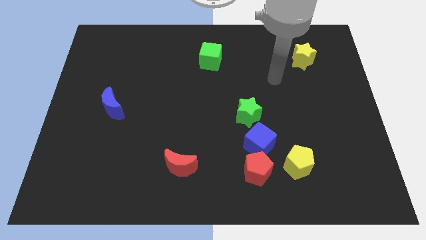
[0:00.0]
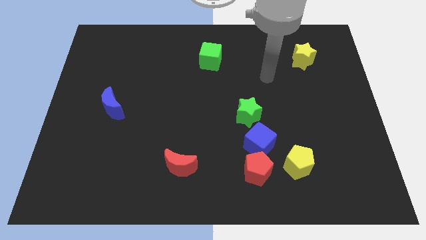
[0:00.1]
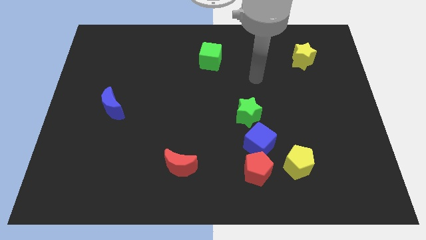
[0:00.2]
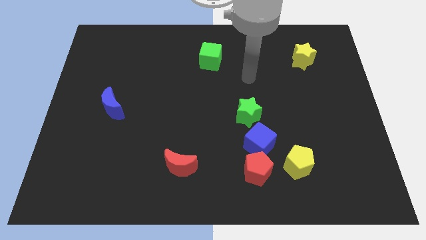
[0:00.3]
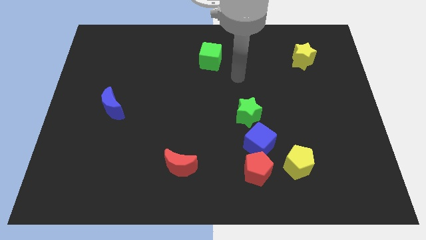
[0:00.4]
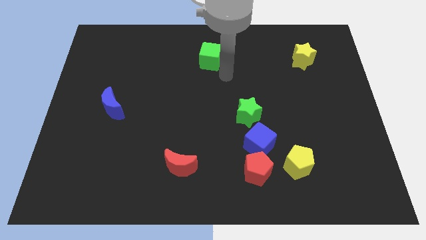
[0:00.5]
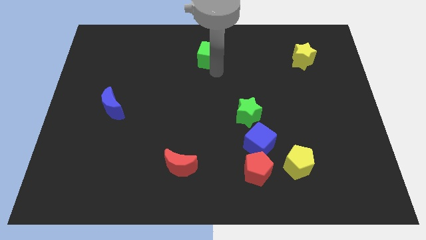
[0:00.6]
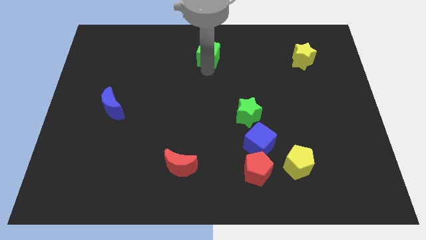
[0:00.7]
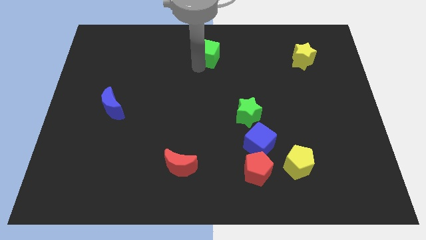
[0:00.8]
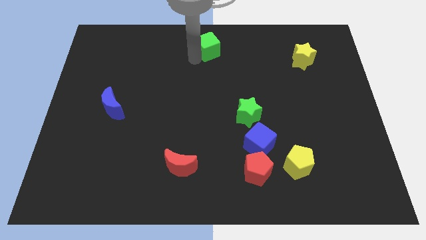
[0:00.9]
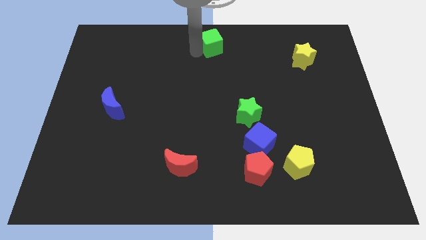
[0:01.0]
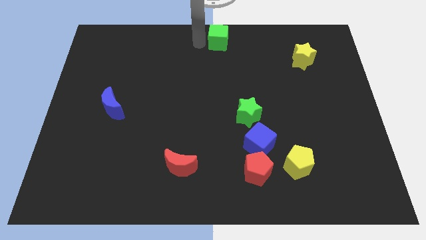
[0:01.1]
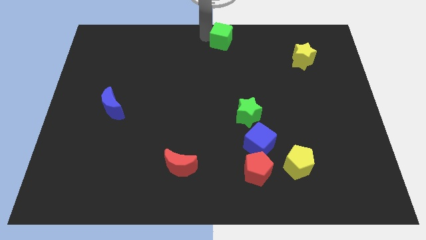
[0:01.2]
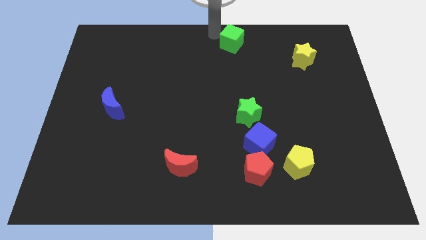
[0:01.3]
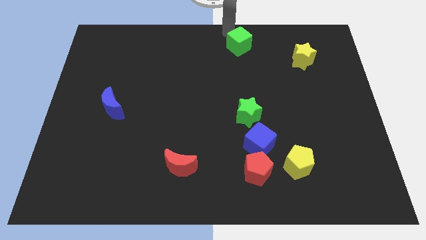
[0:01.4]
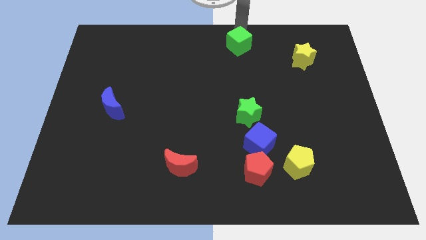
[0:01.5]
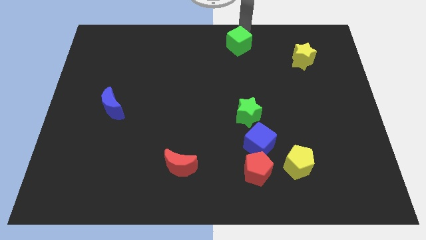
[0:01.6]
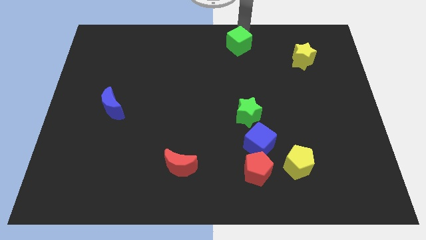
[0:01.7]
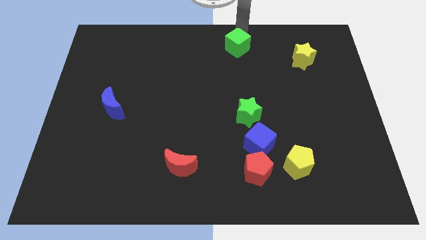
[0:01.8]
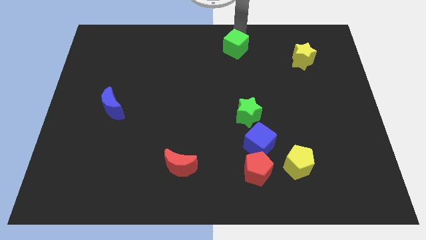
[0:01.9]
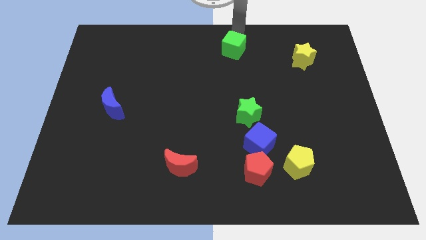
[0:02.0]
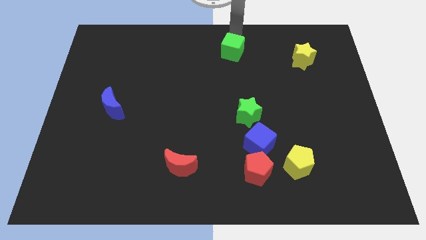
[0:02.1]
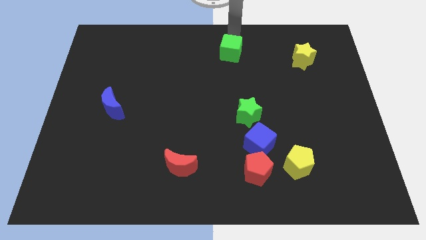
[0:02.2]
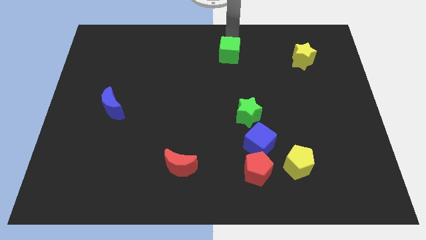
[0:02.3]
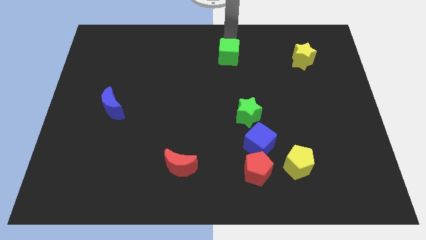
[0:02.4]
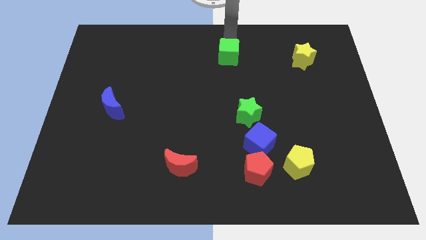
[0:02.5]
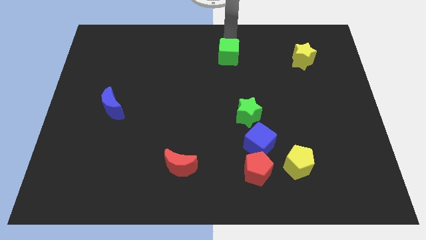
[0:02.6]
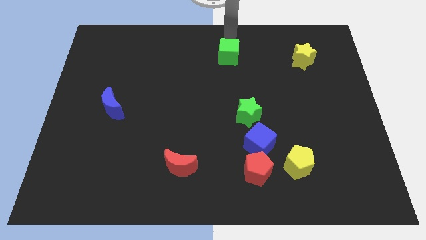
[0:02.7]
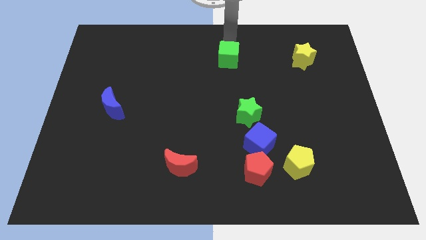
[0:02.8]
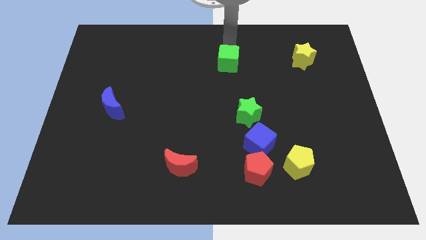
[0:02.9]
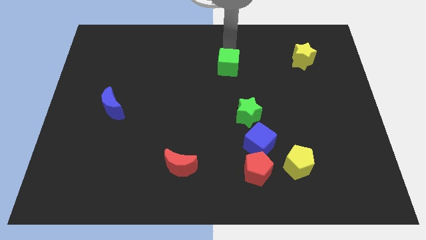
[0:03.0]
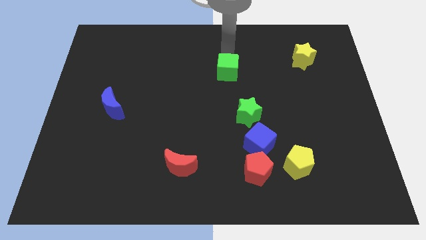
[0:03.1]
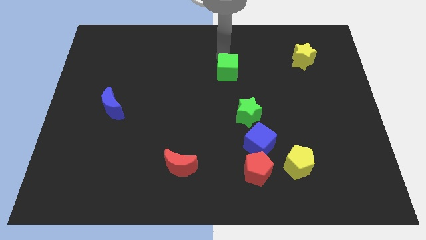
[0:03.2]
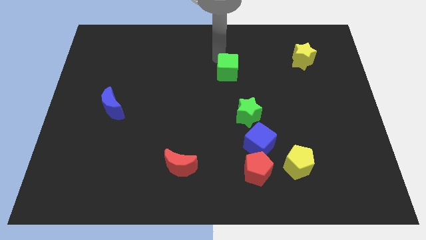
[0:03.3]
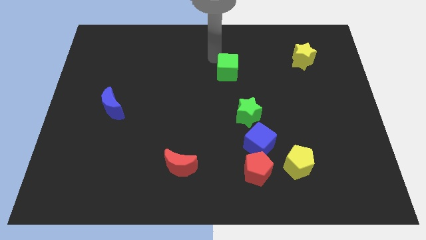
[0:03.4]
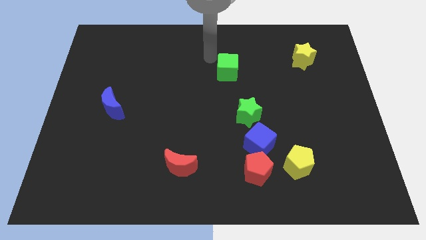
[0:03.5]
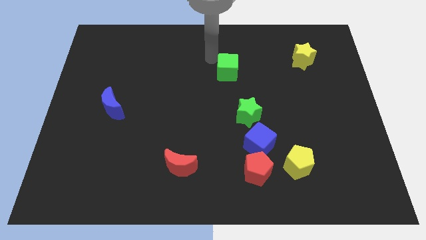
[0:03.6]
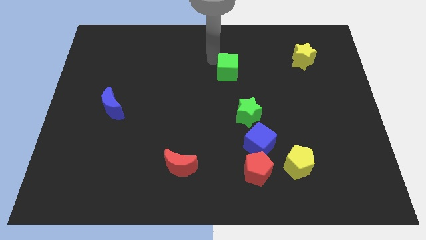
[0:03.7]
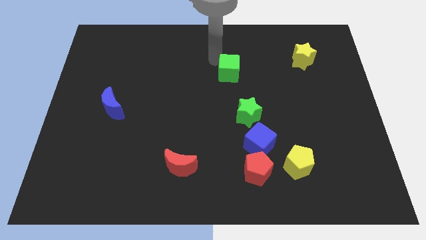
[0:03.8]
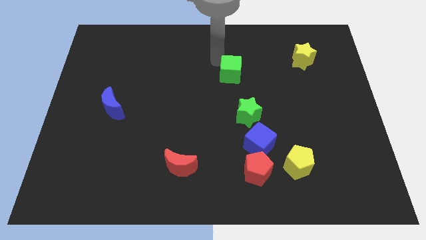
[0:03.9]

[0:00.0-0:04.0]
move the green cube down and to the right a little

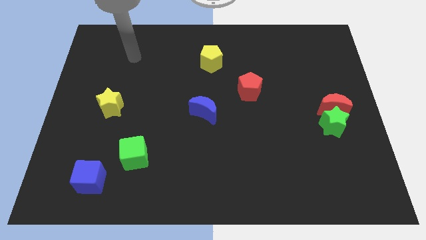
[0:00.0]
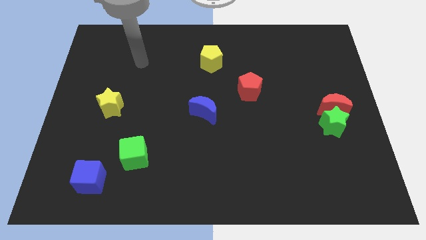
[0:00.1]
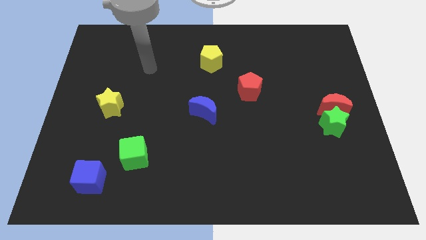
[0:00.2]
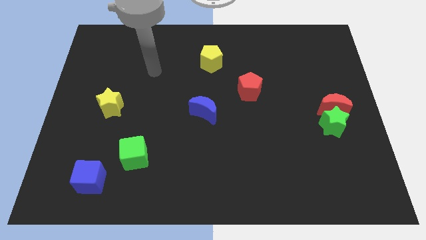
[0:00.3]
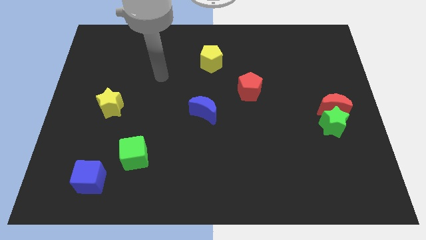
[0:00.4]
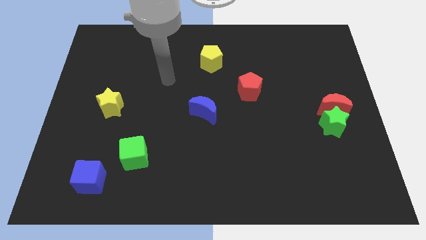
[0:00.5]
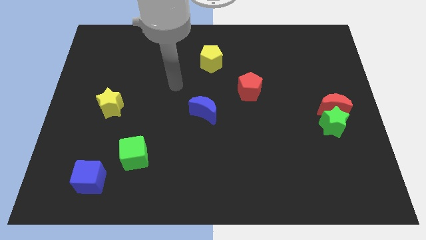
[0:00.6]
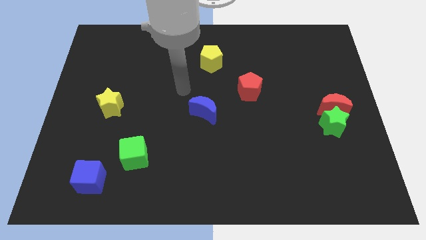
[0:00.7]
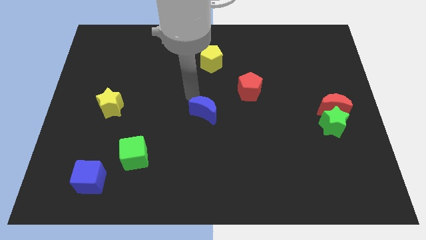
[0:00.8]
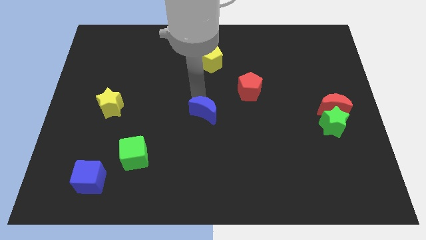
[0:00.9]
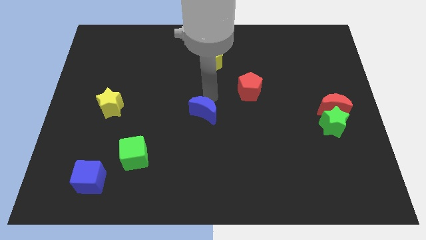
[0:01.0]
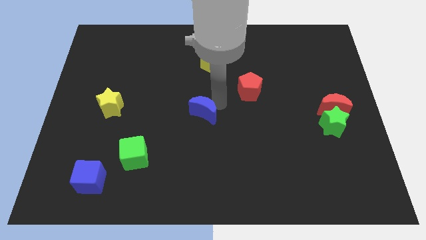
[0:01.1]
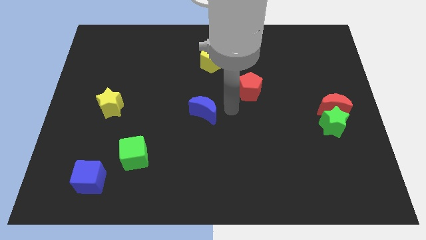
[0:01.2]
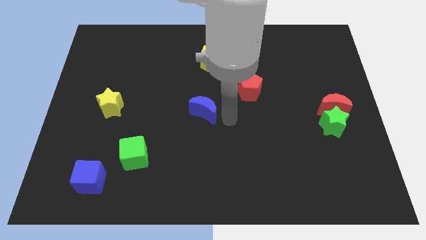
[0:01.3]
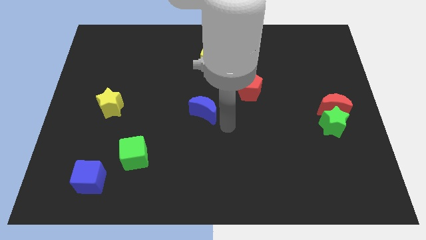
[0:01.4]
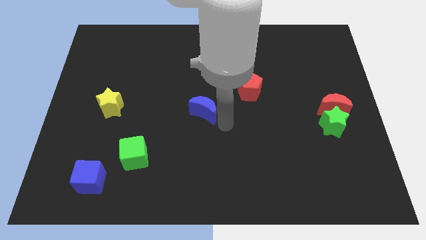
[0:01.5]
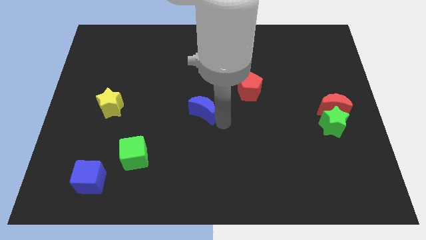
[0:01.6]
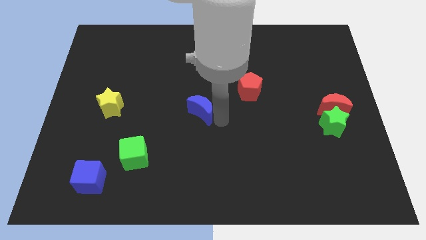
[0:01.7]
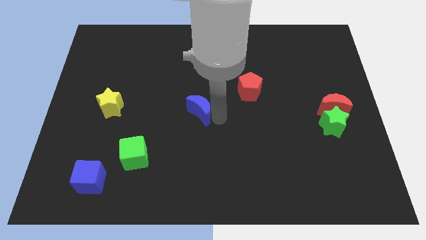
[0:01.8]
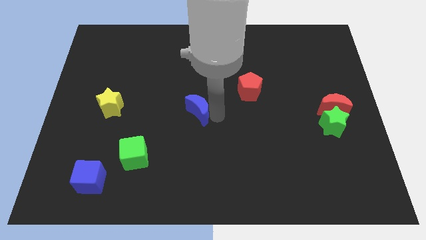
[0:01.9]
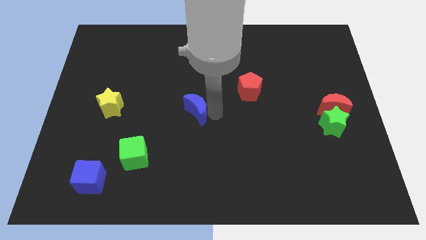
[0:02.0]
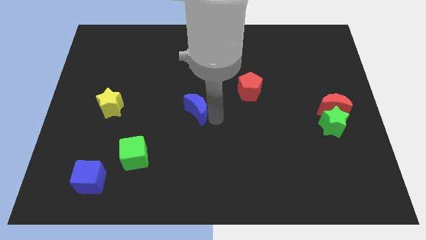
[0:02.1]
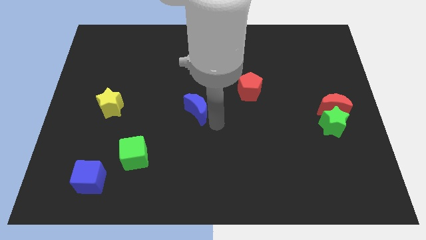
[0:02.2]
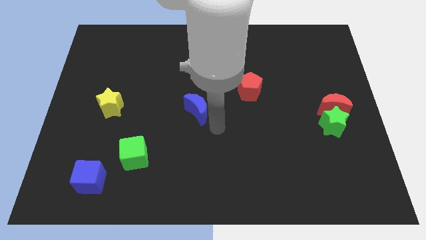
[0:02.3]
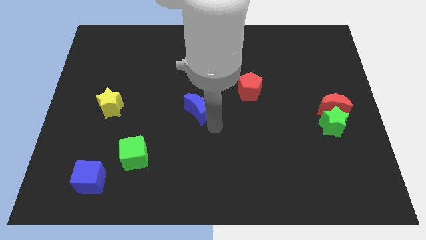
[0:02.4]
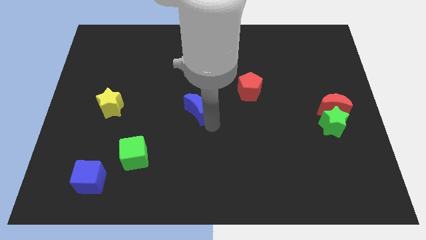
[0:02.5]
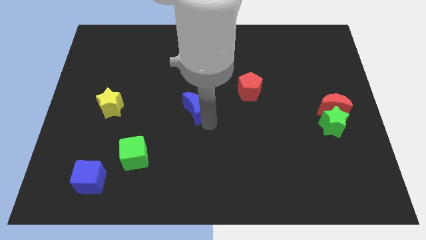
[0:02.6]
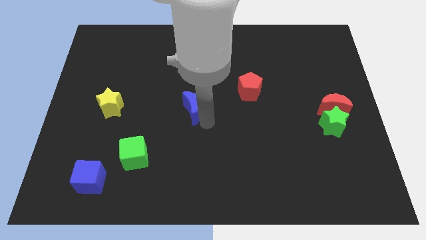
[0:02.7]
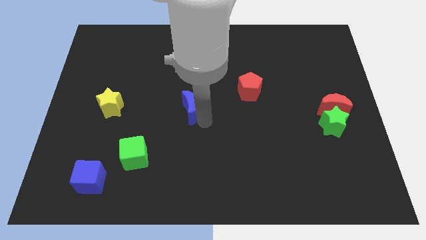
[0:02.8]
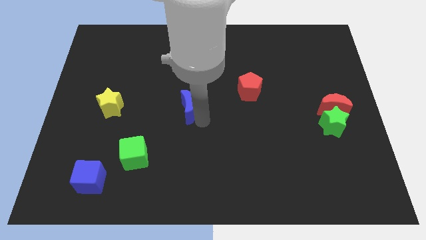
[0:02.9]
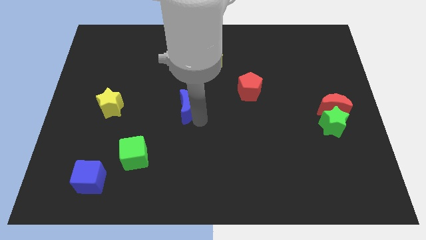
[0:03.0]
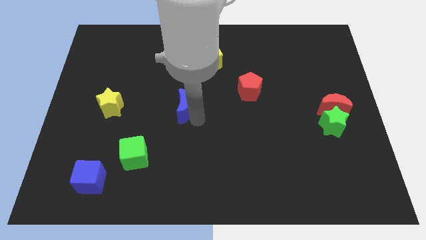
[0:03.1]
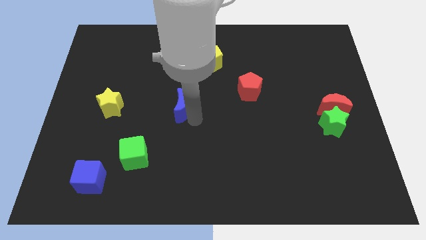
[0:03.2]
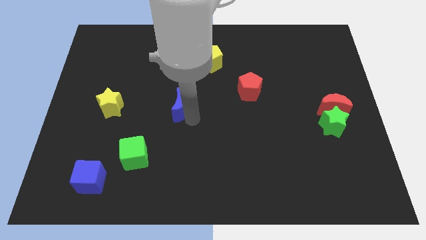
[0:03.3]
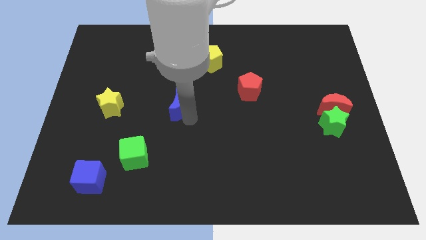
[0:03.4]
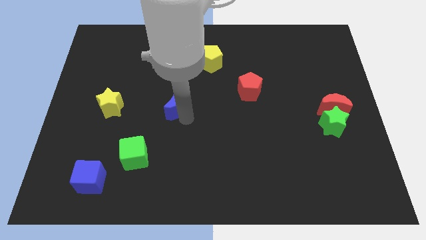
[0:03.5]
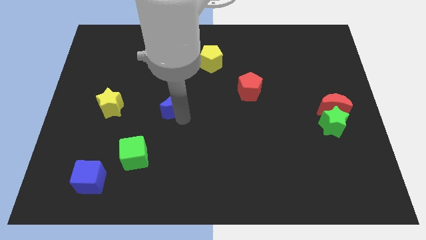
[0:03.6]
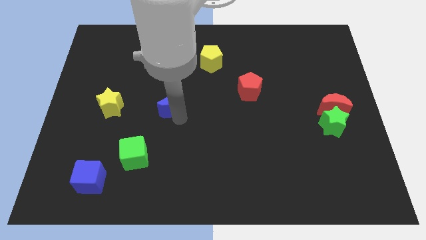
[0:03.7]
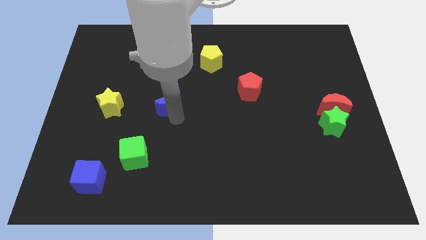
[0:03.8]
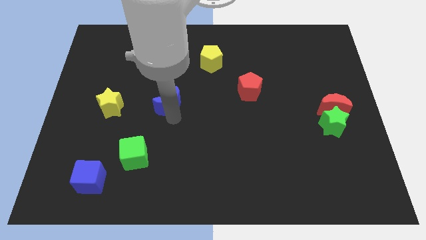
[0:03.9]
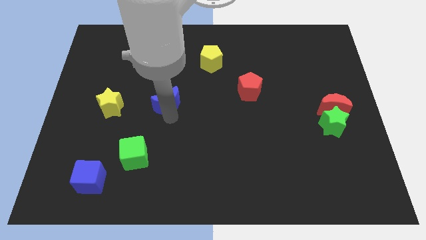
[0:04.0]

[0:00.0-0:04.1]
move the blue moon diagonally upwards and left slightly
